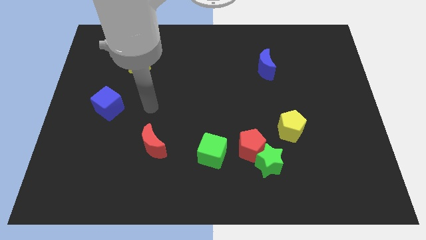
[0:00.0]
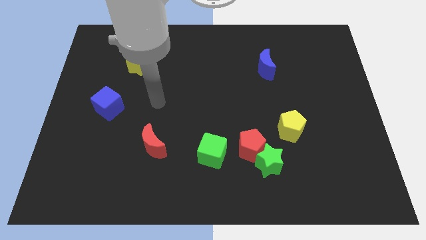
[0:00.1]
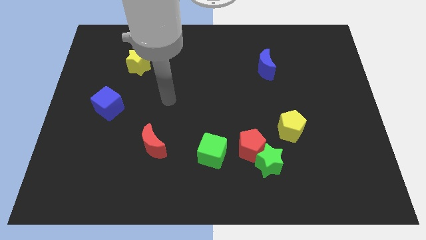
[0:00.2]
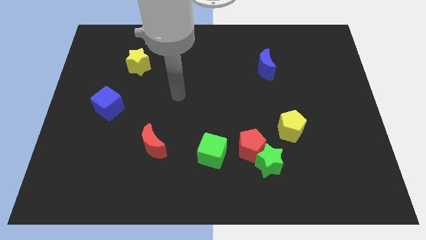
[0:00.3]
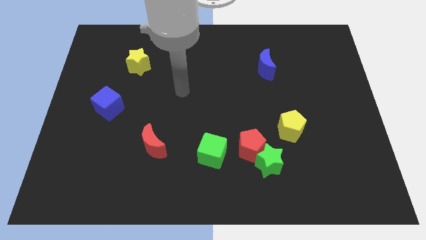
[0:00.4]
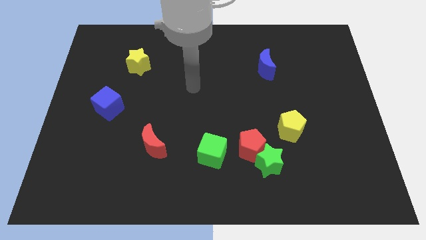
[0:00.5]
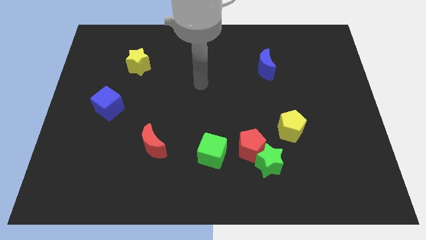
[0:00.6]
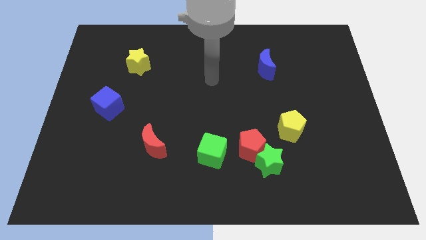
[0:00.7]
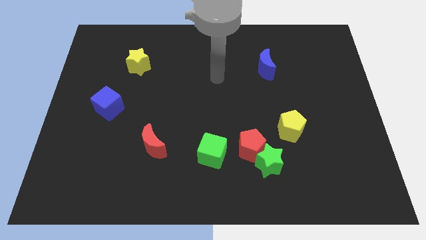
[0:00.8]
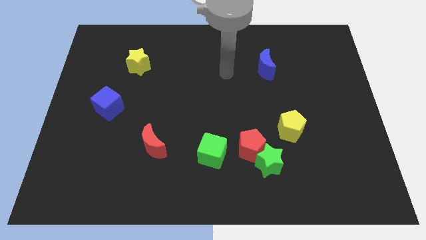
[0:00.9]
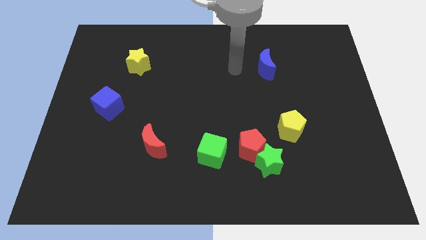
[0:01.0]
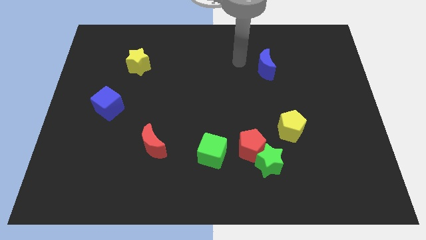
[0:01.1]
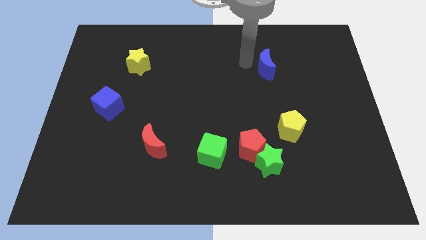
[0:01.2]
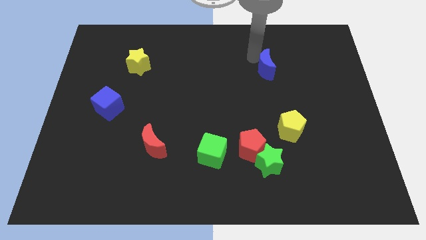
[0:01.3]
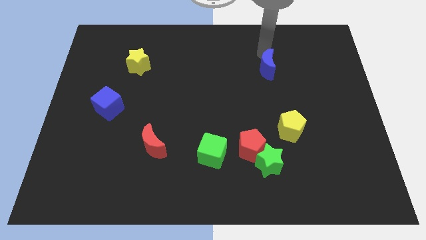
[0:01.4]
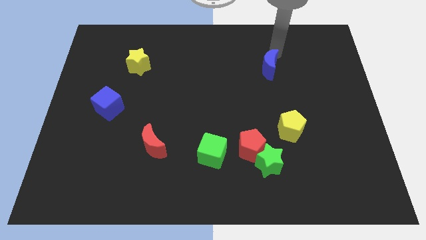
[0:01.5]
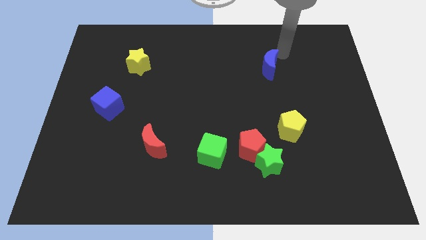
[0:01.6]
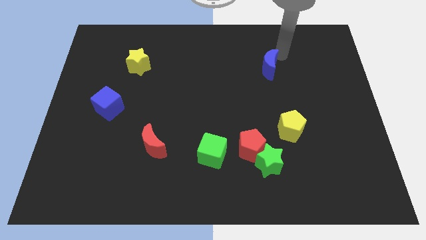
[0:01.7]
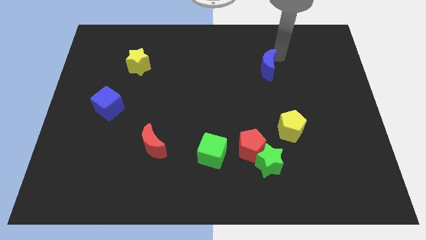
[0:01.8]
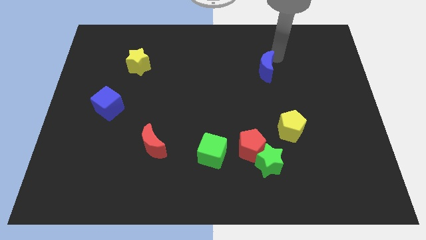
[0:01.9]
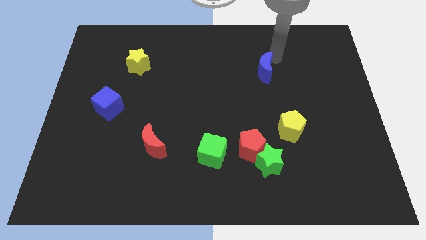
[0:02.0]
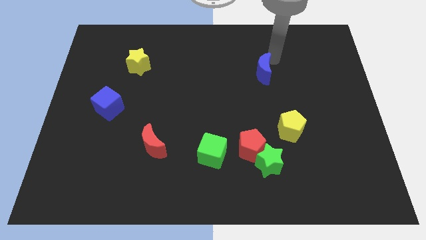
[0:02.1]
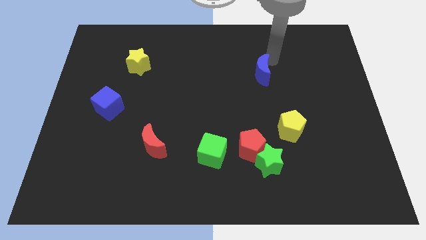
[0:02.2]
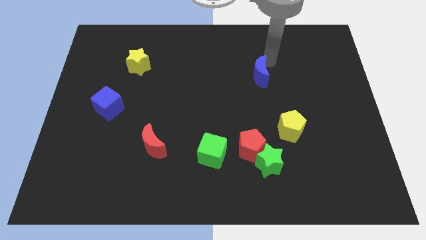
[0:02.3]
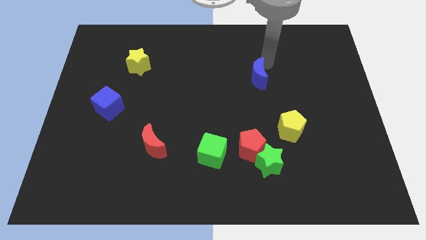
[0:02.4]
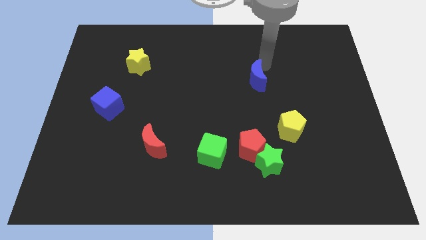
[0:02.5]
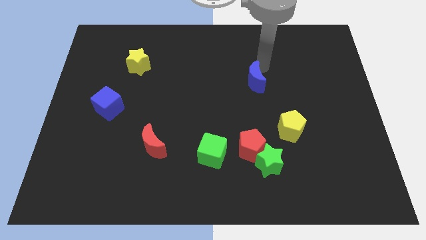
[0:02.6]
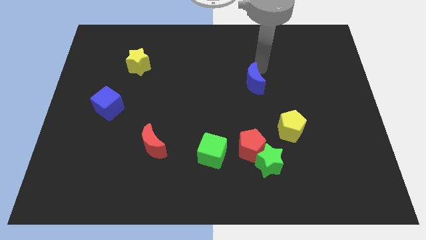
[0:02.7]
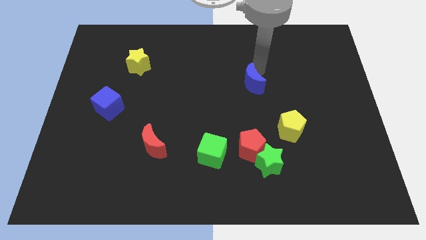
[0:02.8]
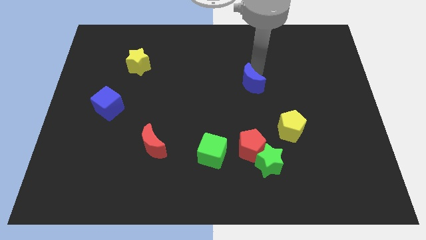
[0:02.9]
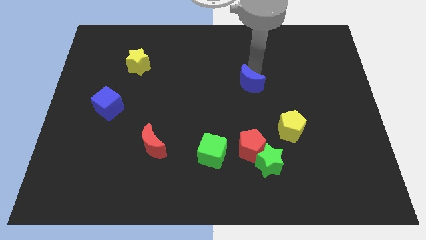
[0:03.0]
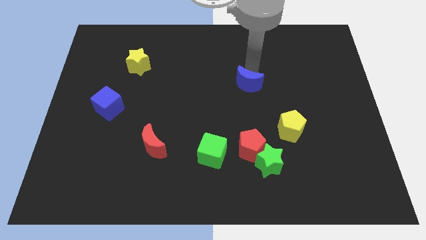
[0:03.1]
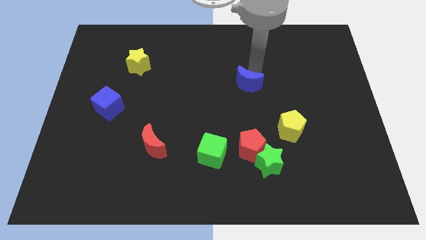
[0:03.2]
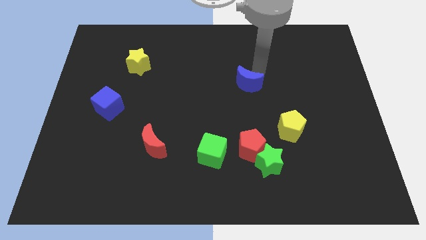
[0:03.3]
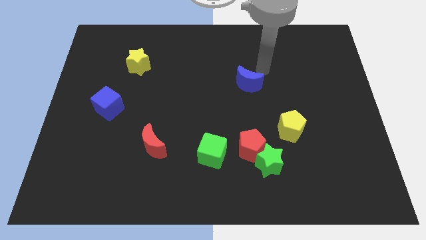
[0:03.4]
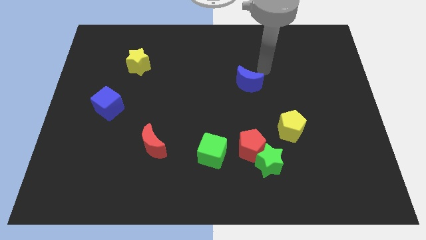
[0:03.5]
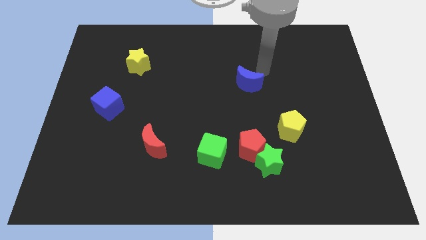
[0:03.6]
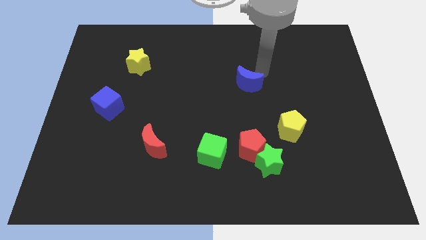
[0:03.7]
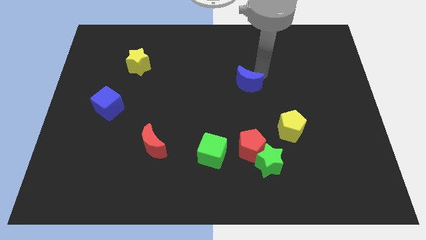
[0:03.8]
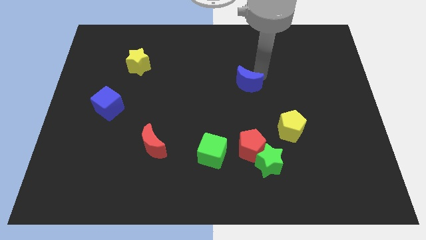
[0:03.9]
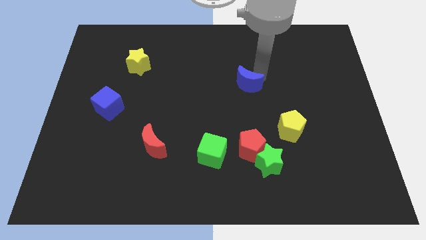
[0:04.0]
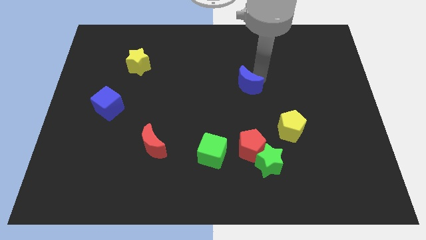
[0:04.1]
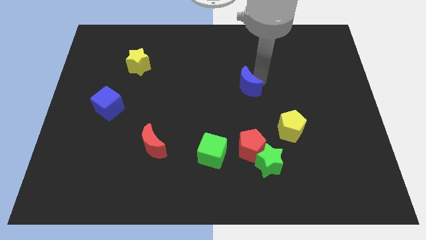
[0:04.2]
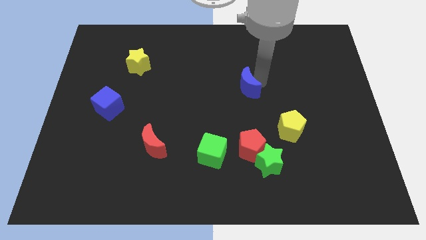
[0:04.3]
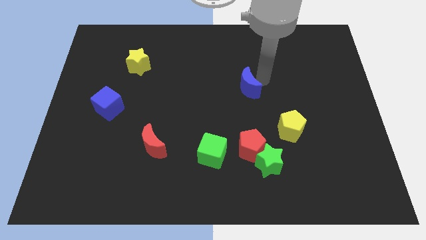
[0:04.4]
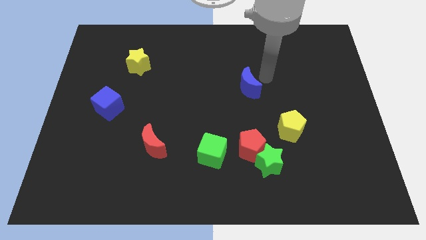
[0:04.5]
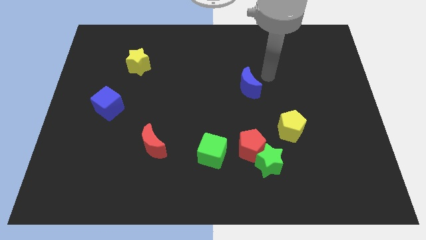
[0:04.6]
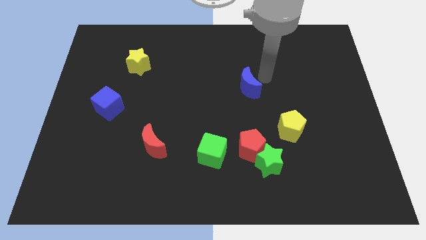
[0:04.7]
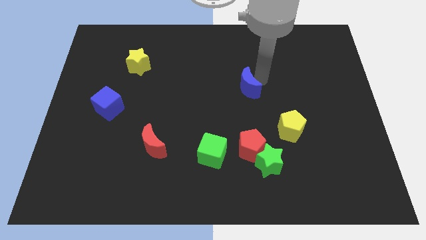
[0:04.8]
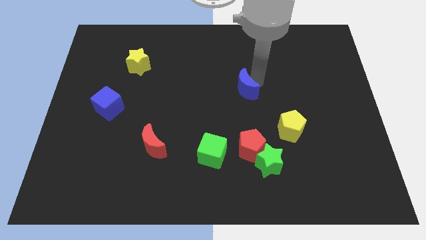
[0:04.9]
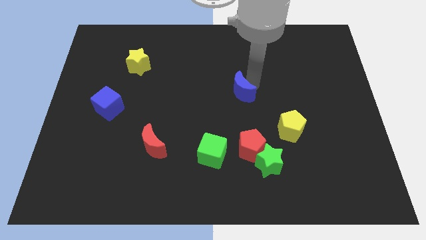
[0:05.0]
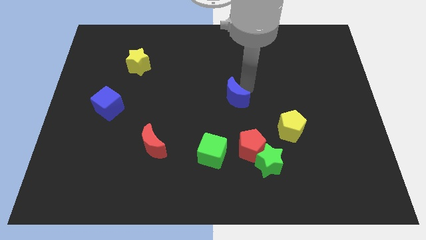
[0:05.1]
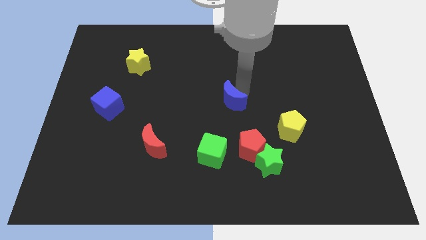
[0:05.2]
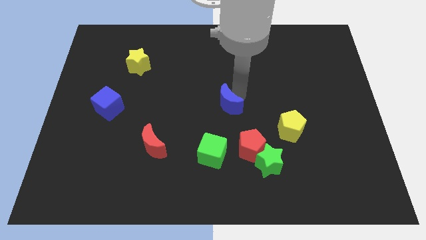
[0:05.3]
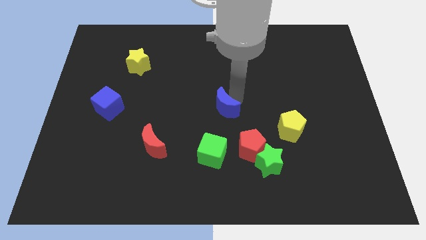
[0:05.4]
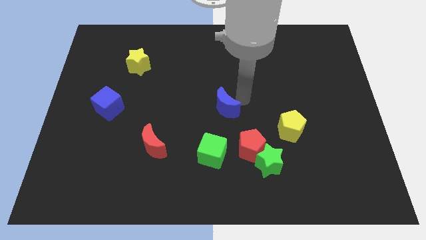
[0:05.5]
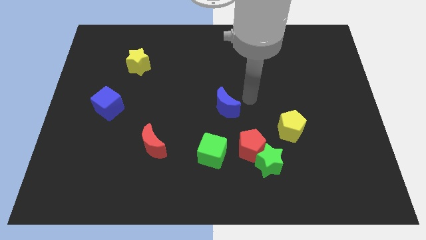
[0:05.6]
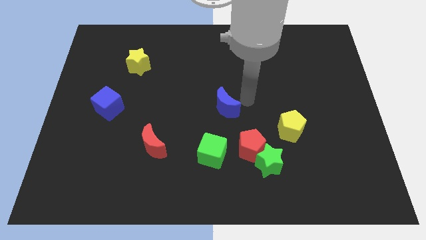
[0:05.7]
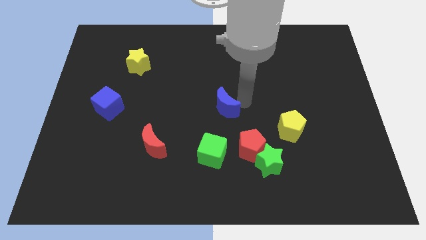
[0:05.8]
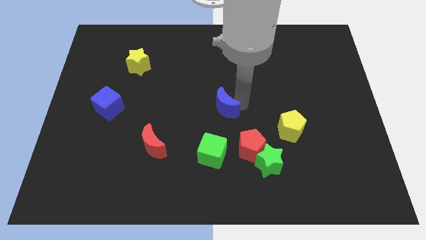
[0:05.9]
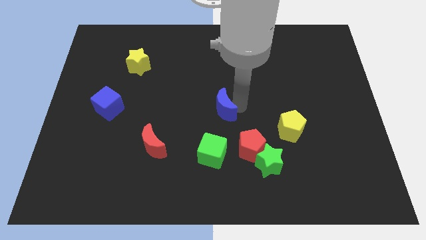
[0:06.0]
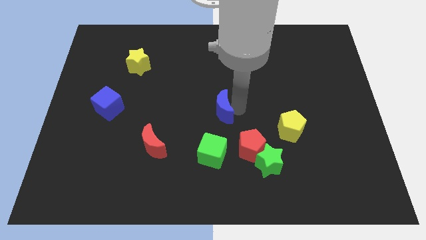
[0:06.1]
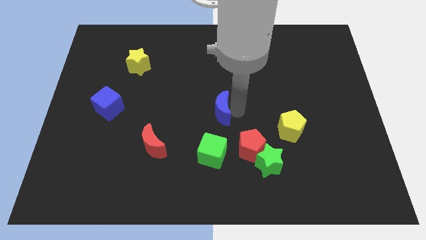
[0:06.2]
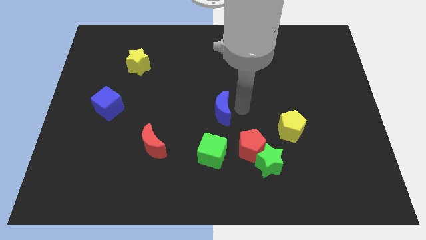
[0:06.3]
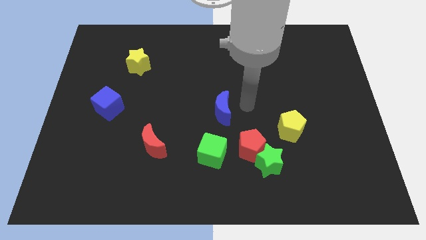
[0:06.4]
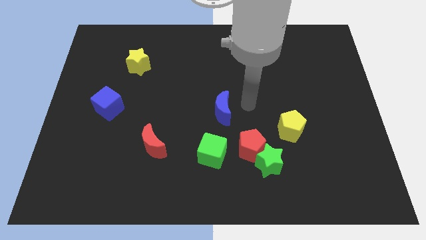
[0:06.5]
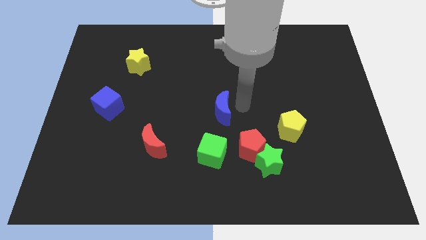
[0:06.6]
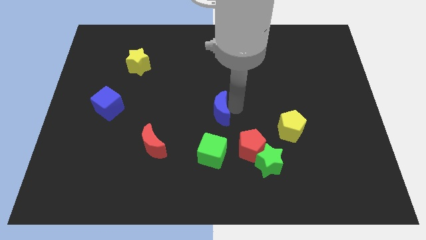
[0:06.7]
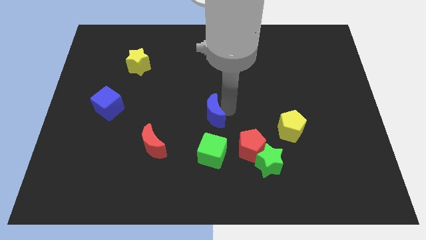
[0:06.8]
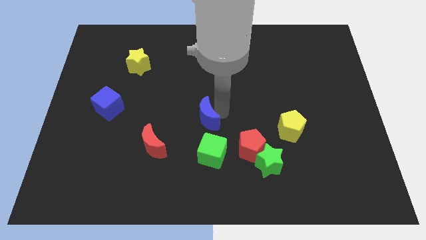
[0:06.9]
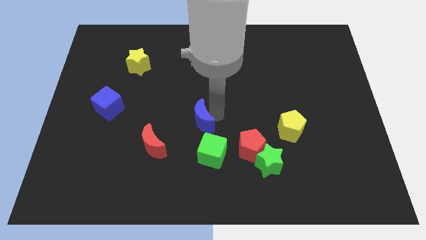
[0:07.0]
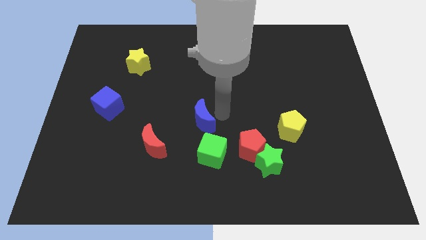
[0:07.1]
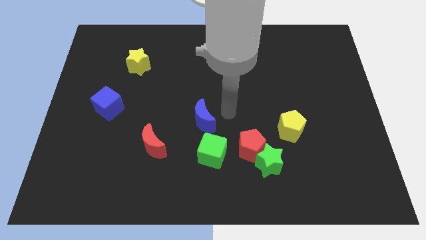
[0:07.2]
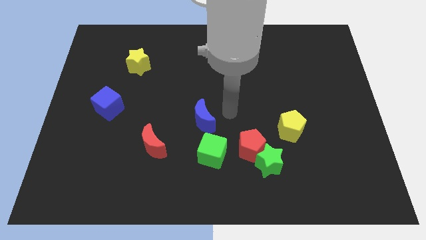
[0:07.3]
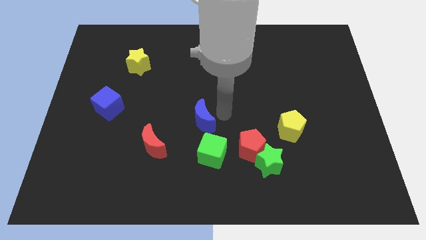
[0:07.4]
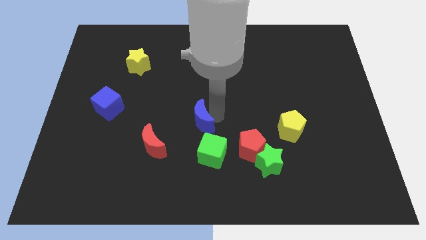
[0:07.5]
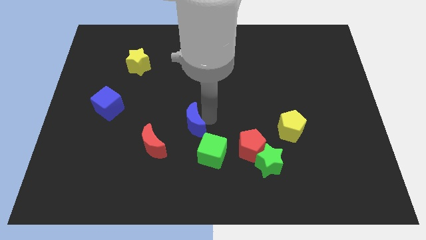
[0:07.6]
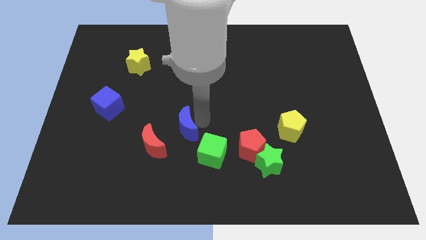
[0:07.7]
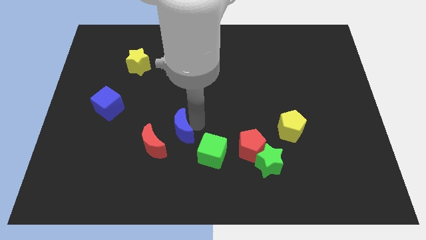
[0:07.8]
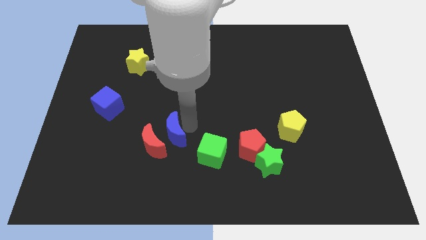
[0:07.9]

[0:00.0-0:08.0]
put the blue moon towards the red moon
